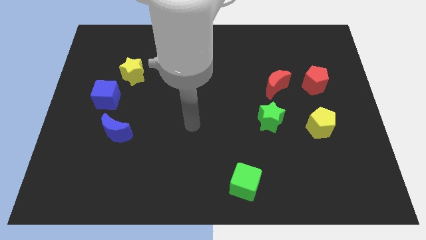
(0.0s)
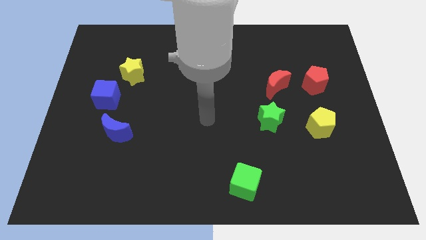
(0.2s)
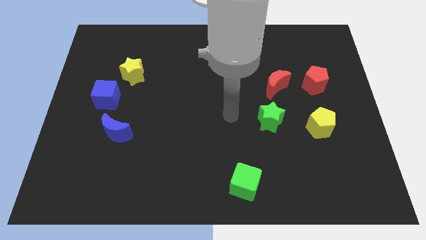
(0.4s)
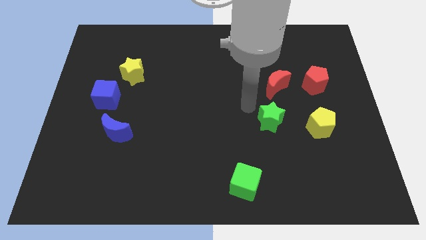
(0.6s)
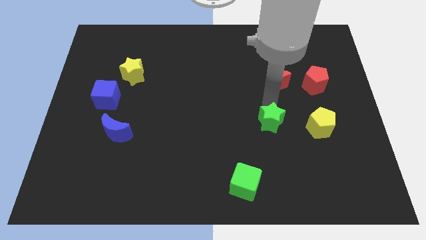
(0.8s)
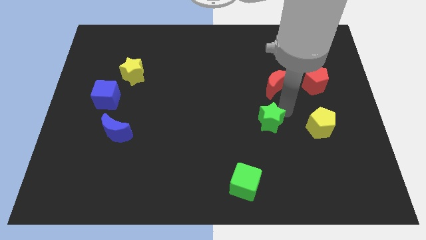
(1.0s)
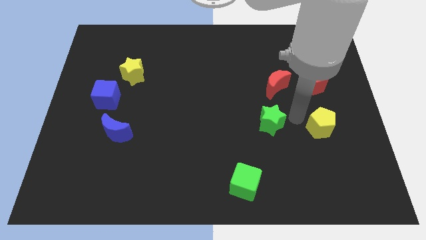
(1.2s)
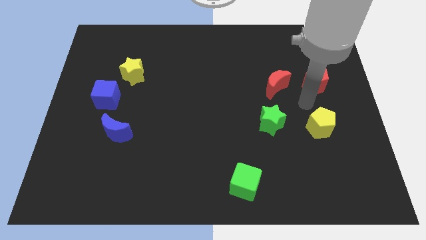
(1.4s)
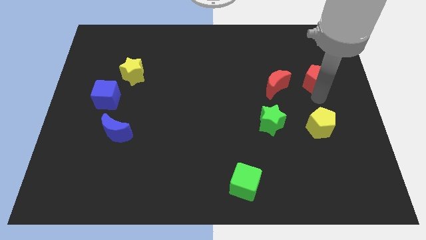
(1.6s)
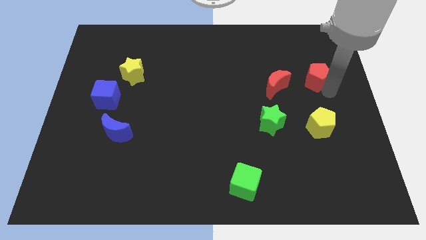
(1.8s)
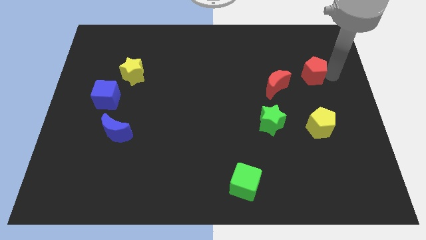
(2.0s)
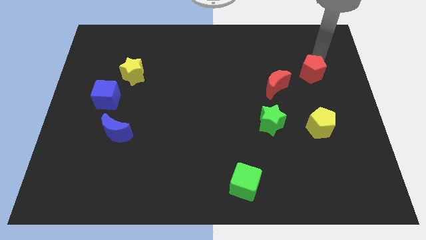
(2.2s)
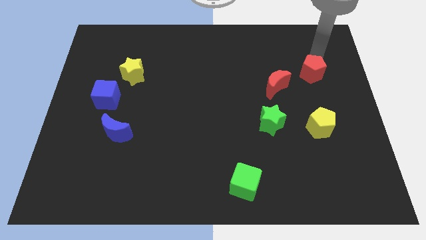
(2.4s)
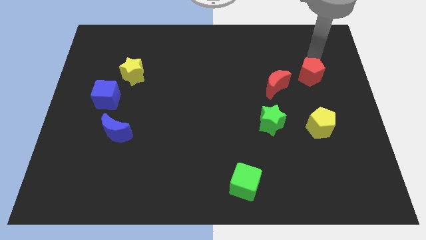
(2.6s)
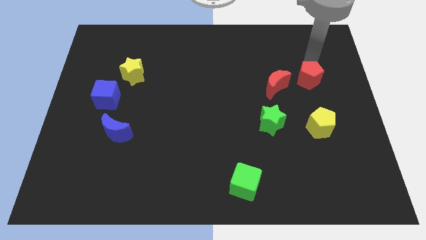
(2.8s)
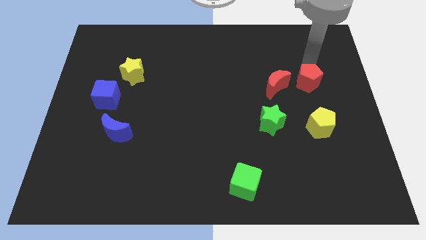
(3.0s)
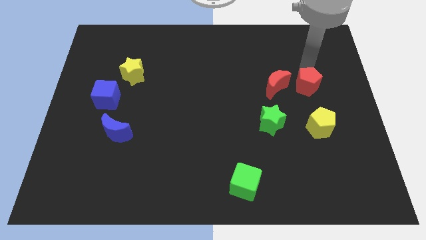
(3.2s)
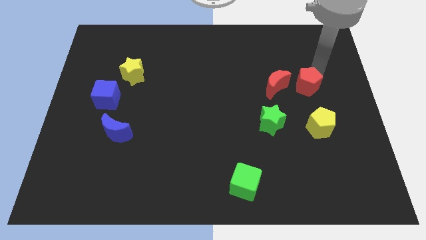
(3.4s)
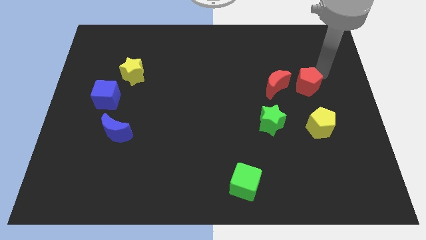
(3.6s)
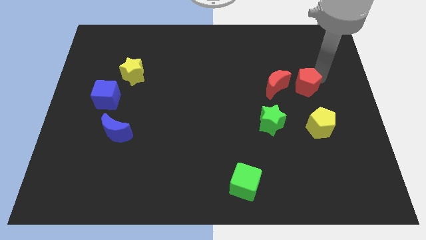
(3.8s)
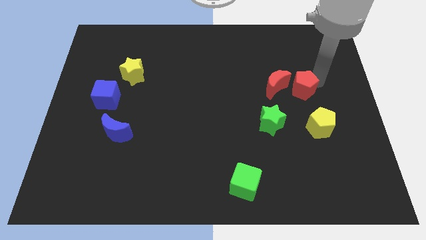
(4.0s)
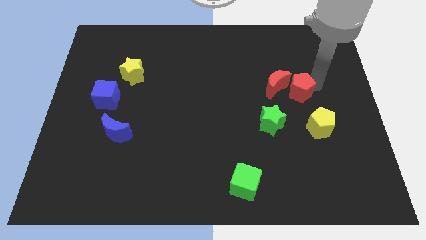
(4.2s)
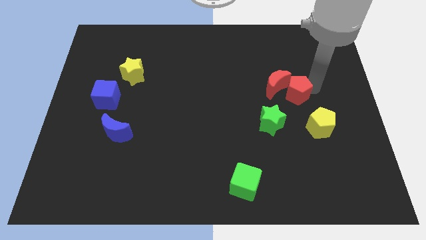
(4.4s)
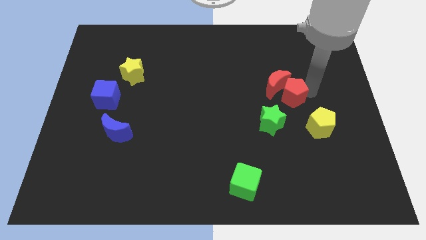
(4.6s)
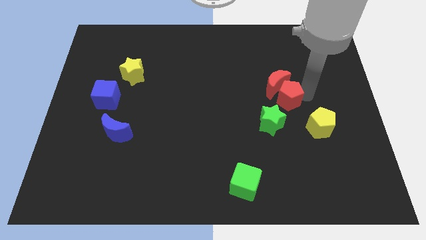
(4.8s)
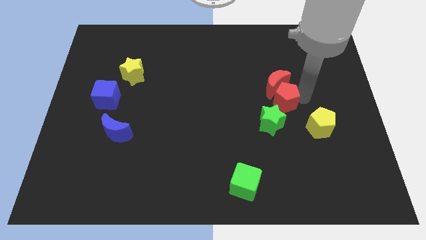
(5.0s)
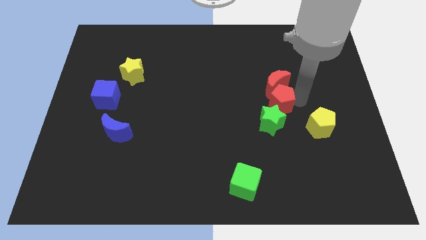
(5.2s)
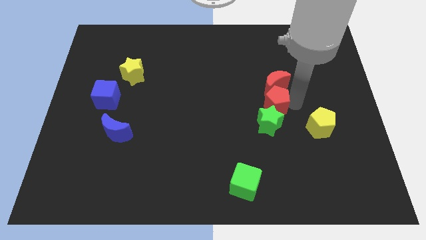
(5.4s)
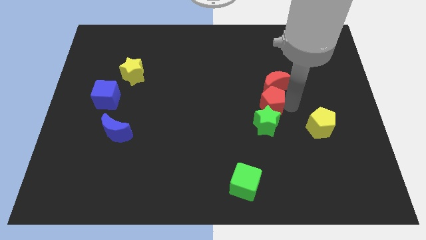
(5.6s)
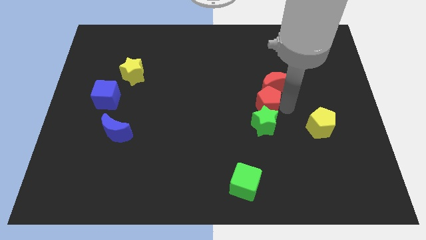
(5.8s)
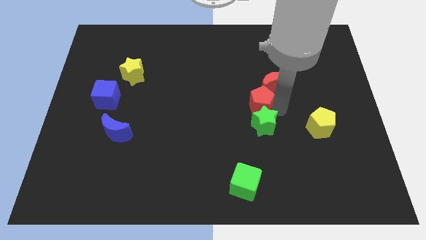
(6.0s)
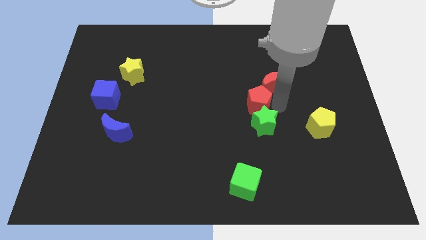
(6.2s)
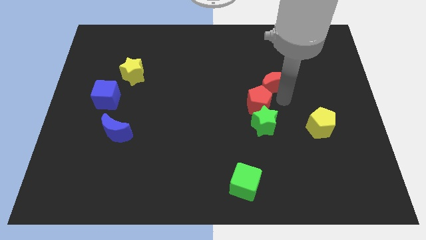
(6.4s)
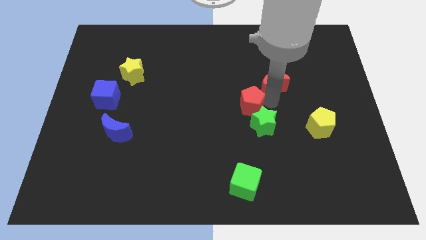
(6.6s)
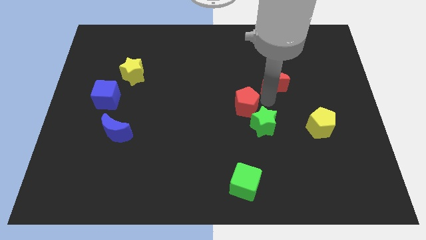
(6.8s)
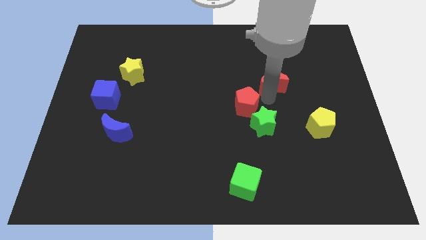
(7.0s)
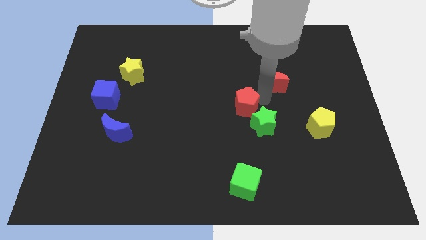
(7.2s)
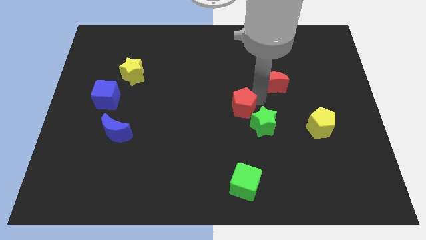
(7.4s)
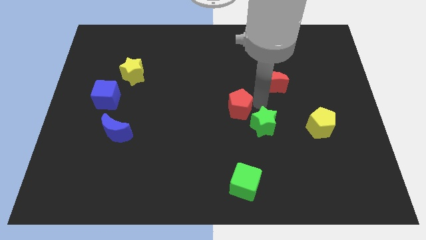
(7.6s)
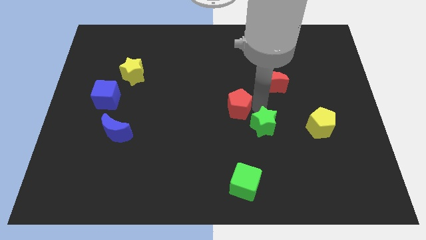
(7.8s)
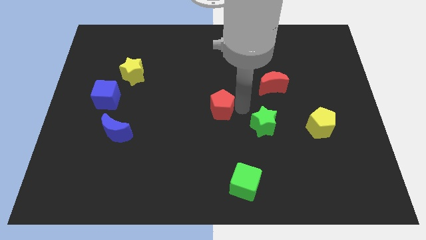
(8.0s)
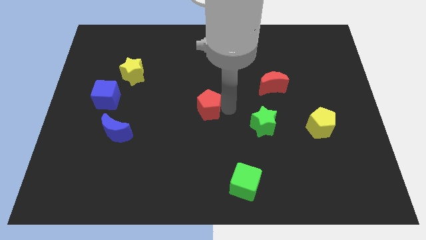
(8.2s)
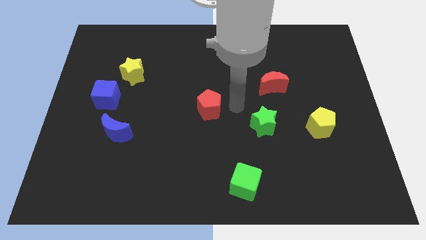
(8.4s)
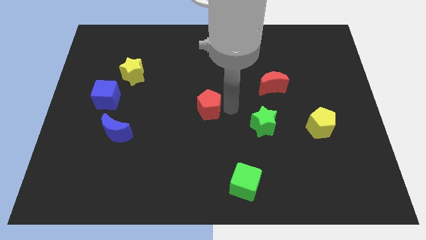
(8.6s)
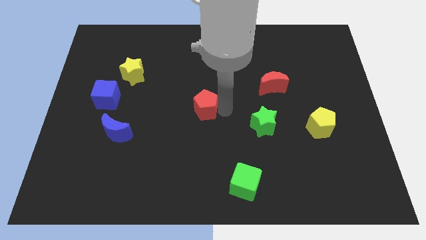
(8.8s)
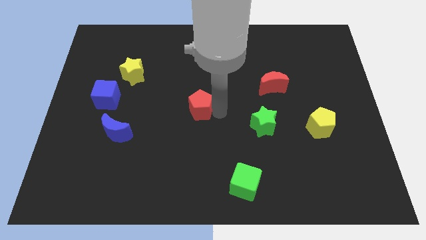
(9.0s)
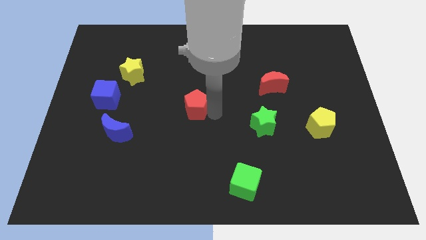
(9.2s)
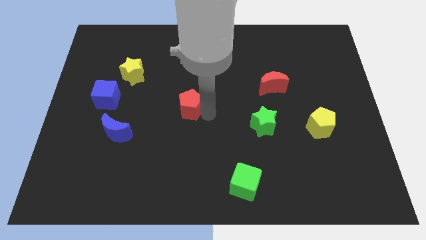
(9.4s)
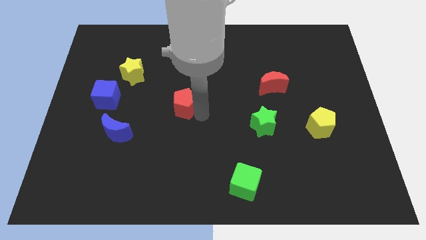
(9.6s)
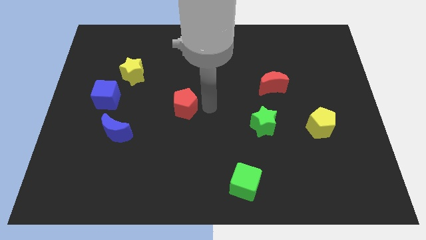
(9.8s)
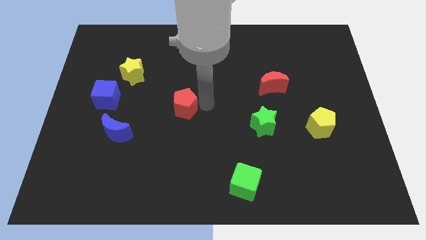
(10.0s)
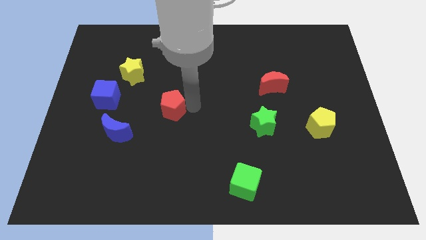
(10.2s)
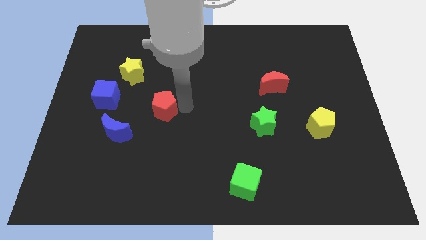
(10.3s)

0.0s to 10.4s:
push the red pentagon to the top right side of the blue moon

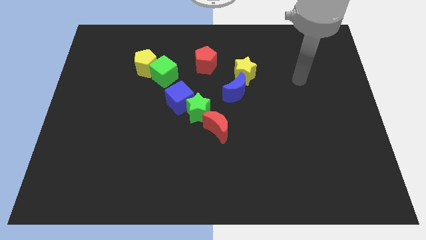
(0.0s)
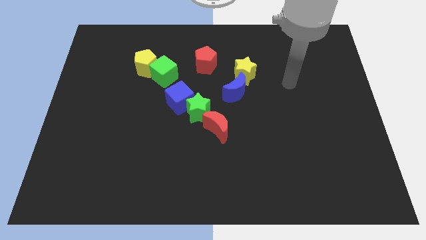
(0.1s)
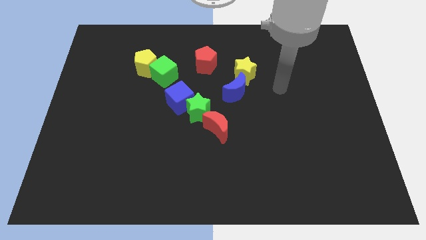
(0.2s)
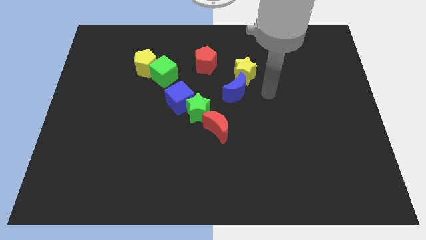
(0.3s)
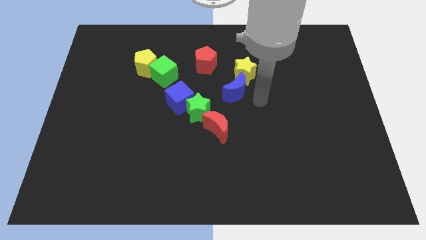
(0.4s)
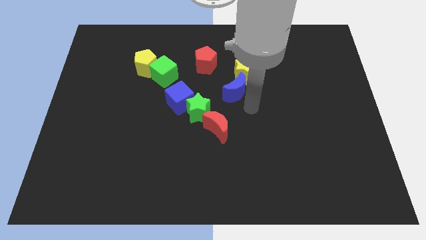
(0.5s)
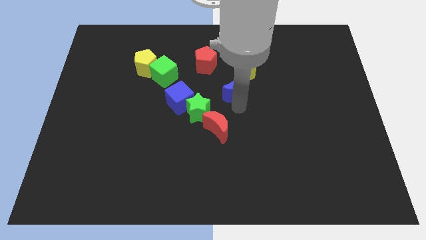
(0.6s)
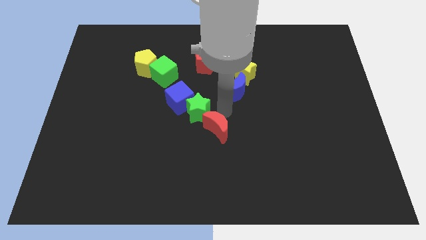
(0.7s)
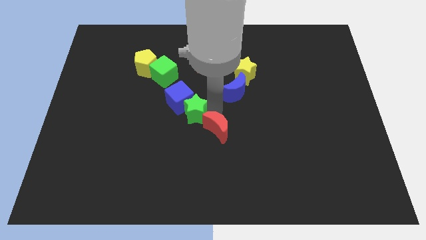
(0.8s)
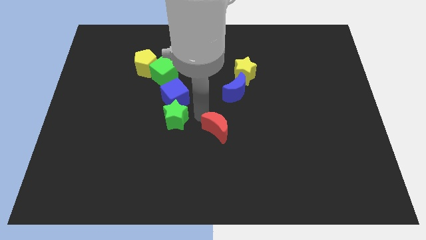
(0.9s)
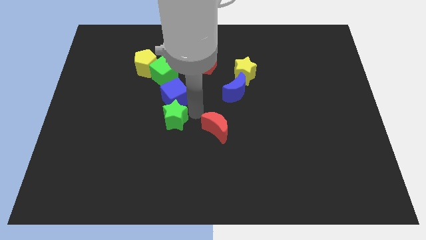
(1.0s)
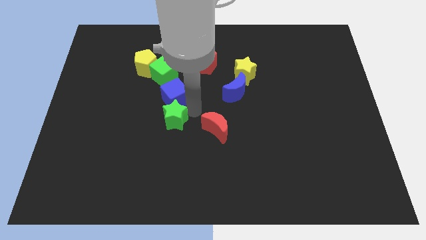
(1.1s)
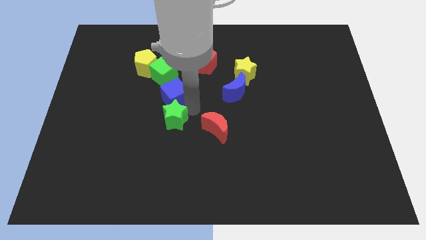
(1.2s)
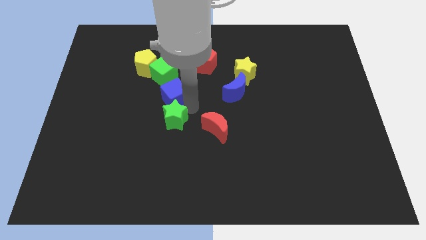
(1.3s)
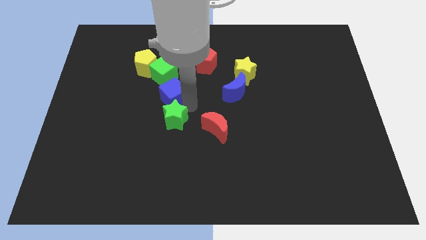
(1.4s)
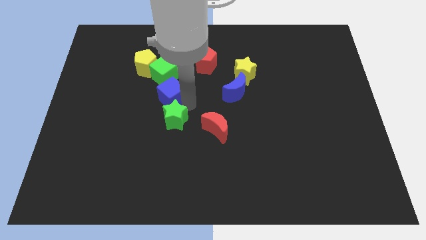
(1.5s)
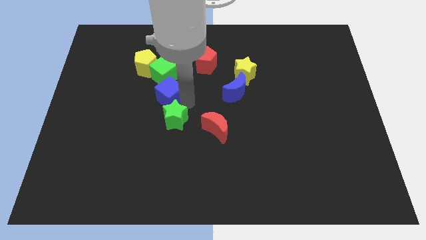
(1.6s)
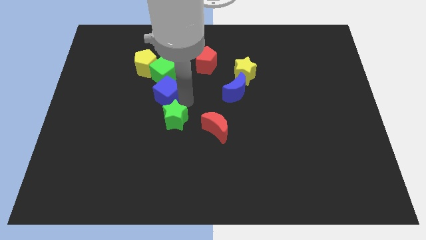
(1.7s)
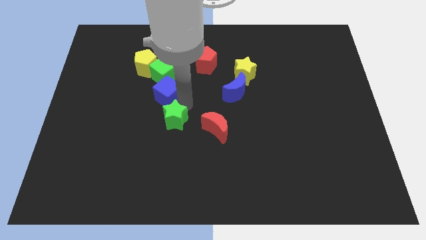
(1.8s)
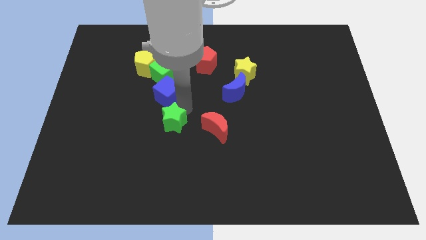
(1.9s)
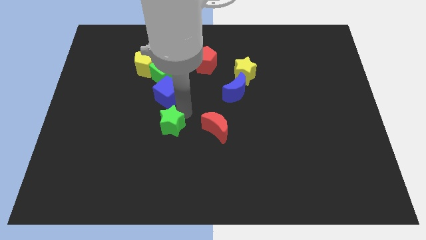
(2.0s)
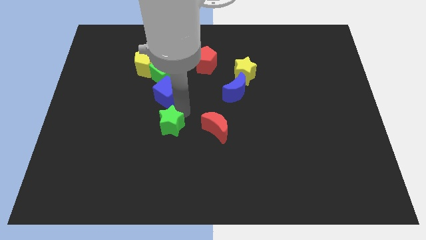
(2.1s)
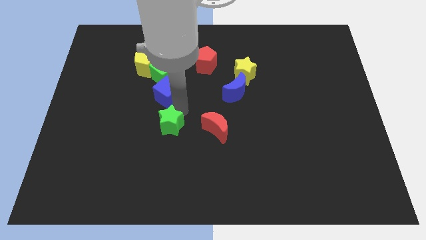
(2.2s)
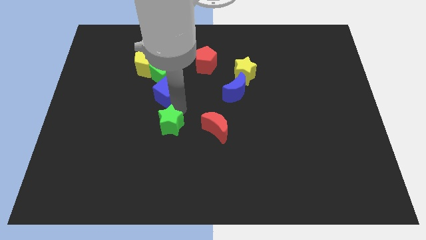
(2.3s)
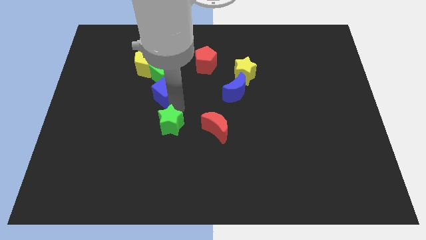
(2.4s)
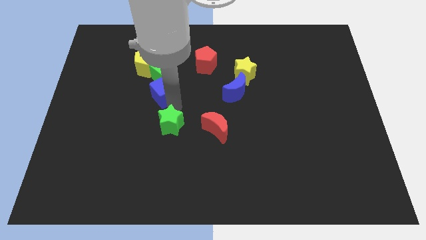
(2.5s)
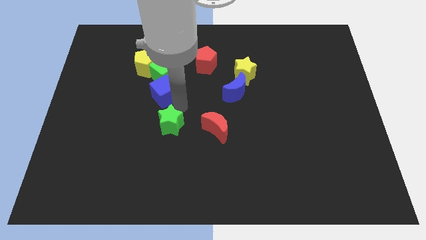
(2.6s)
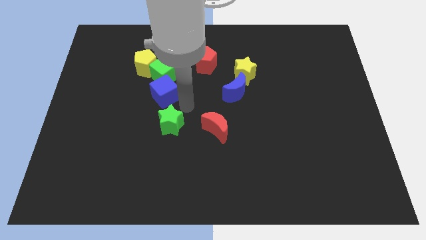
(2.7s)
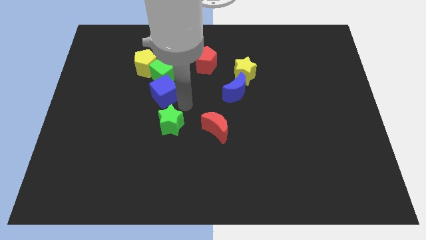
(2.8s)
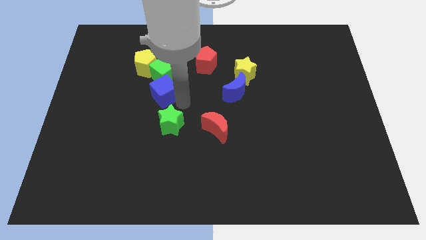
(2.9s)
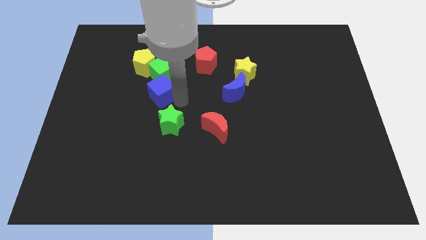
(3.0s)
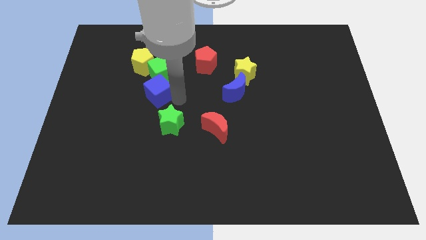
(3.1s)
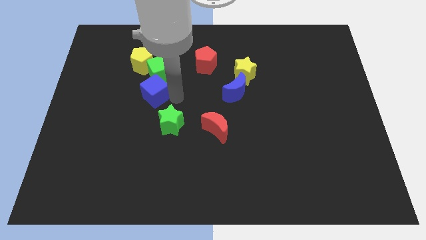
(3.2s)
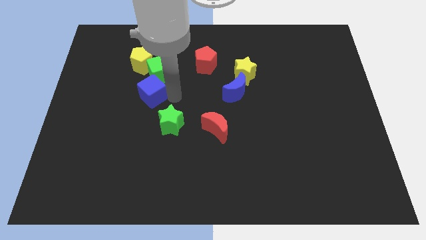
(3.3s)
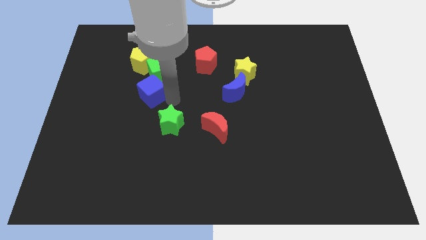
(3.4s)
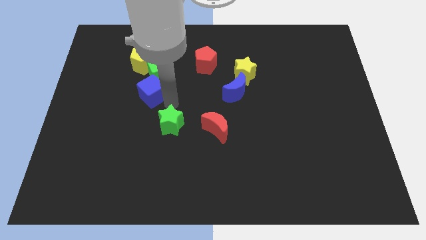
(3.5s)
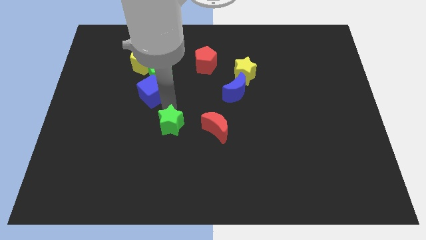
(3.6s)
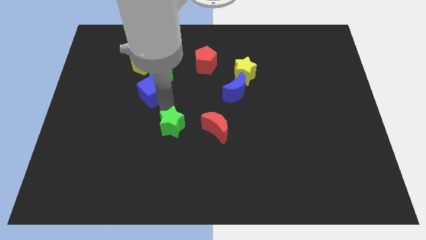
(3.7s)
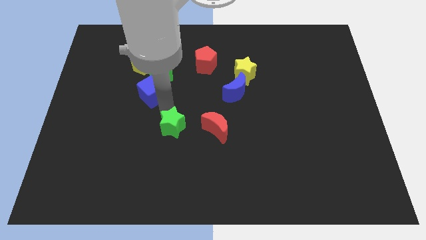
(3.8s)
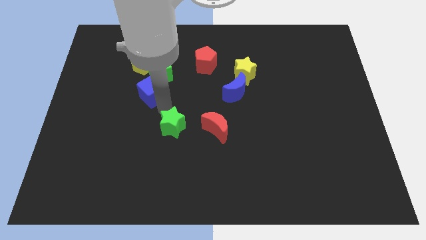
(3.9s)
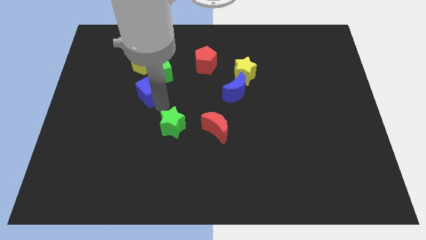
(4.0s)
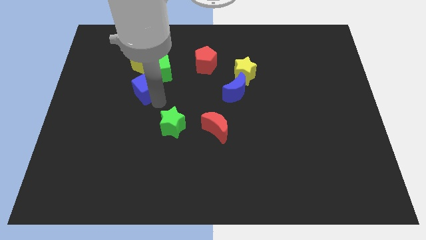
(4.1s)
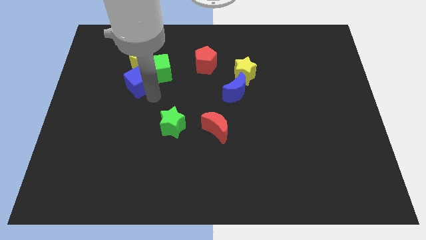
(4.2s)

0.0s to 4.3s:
slide the blue cube to the left of the green cube
